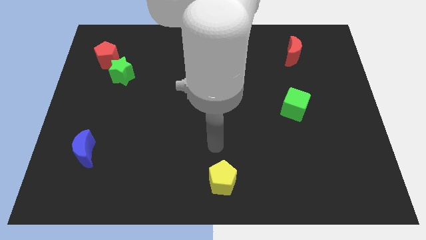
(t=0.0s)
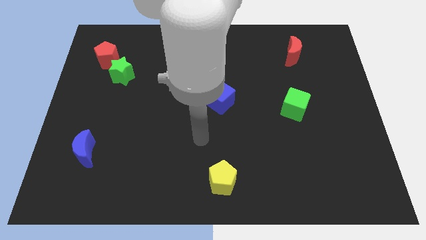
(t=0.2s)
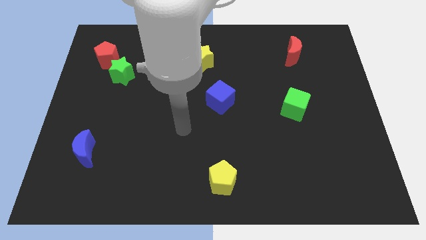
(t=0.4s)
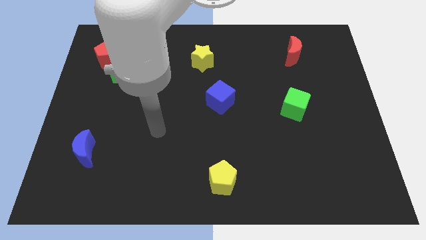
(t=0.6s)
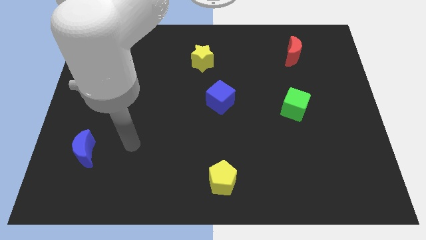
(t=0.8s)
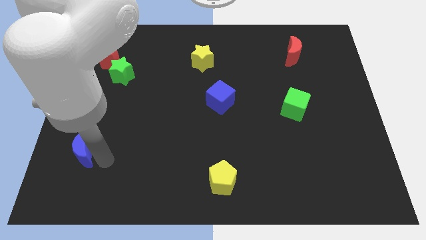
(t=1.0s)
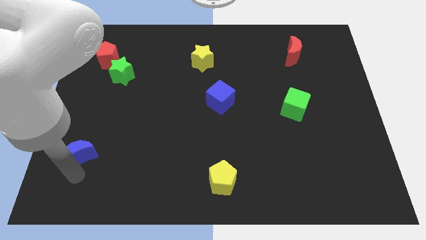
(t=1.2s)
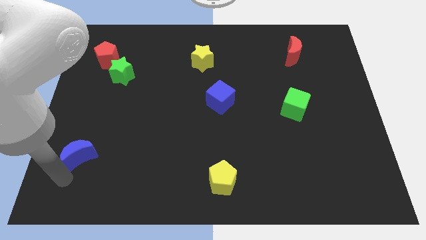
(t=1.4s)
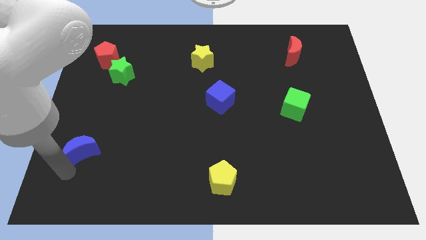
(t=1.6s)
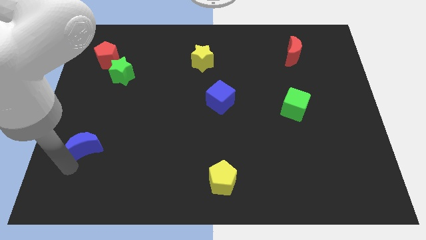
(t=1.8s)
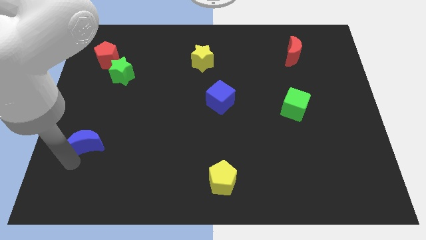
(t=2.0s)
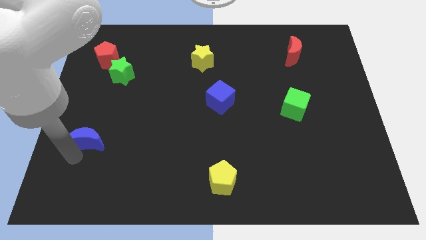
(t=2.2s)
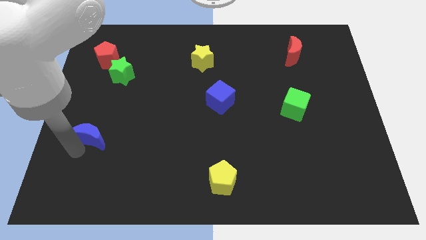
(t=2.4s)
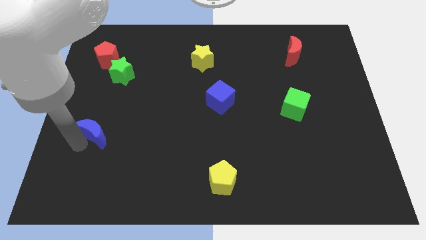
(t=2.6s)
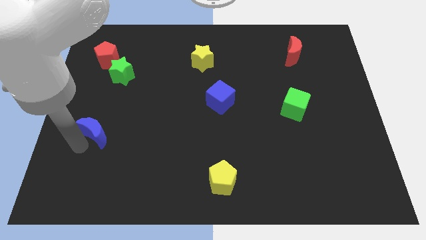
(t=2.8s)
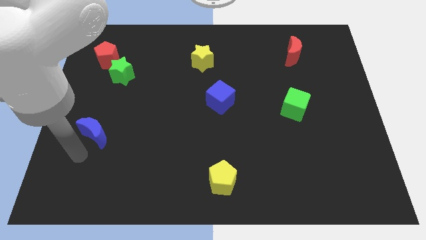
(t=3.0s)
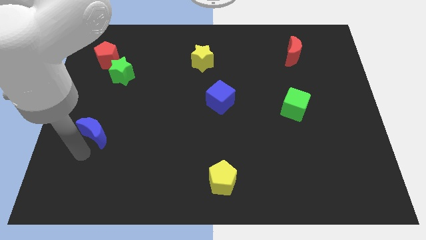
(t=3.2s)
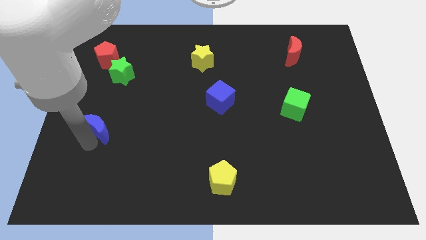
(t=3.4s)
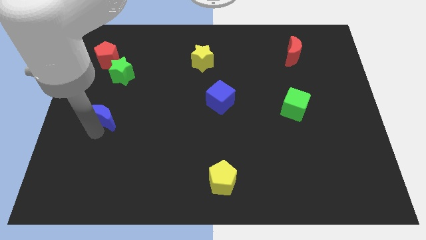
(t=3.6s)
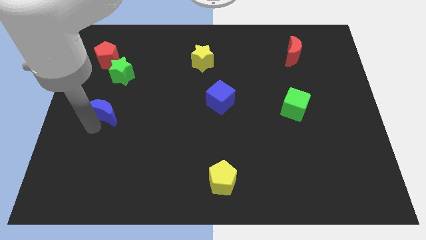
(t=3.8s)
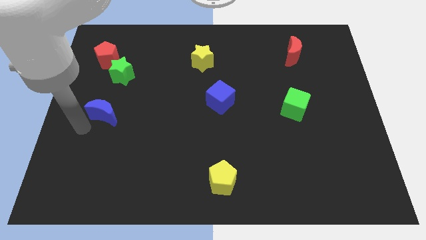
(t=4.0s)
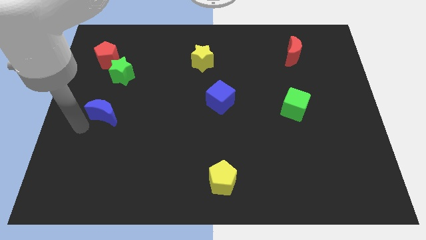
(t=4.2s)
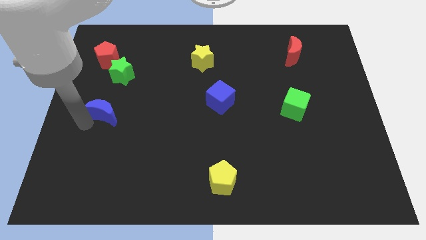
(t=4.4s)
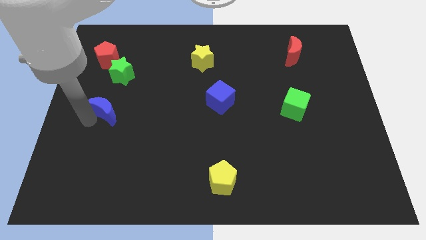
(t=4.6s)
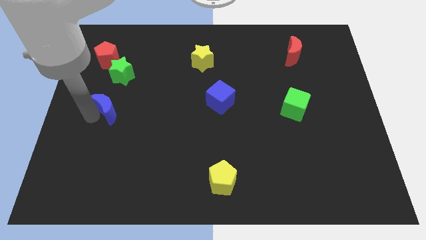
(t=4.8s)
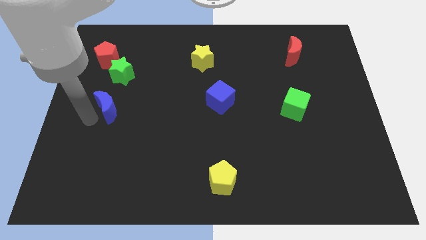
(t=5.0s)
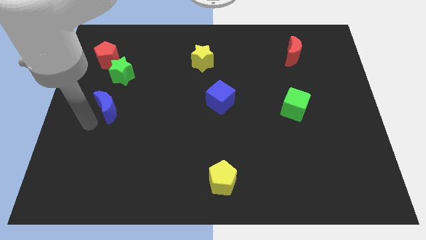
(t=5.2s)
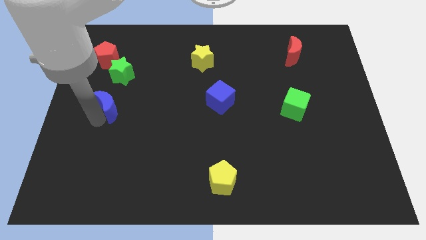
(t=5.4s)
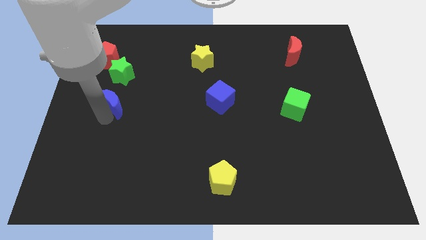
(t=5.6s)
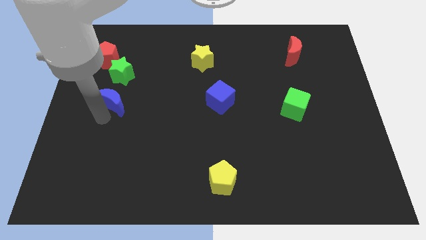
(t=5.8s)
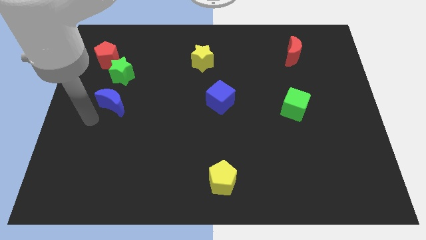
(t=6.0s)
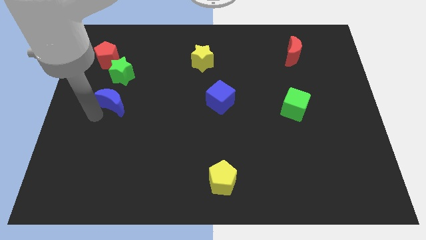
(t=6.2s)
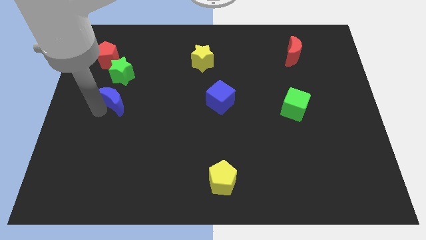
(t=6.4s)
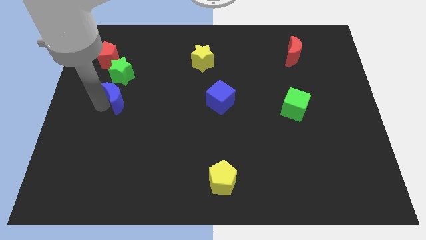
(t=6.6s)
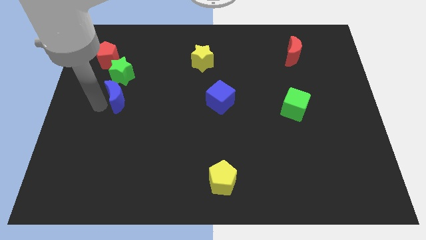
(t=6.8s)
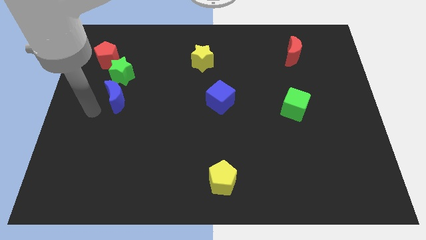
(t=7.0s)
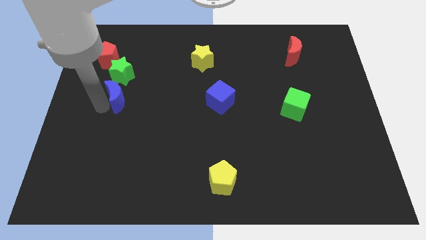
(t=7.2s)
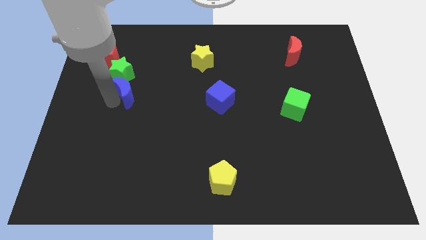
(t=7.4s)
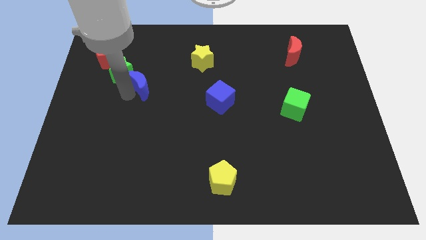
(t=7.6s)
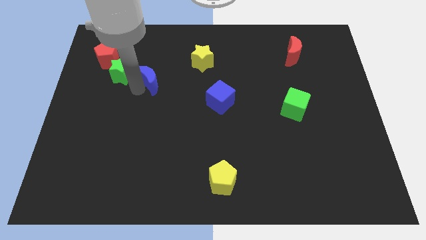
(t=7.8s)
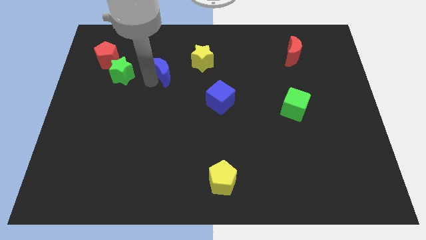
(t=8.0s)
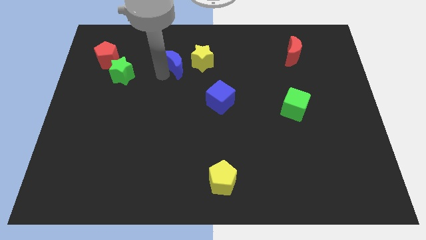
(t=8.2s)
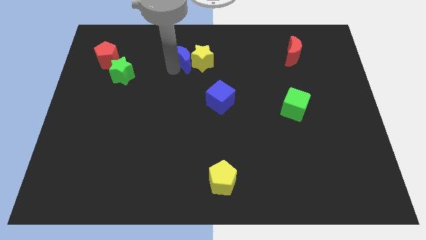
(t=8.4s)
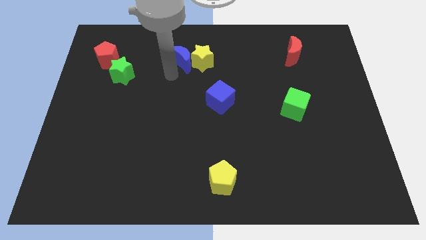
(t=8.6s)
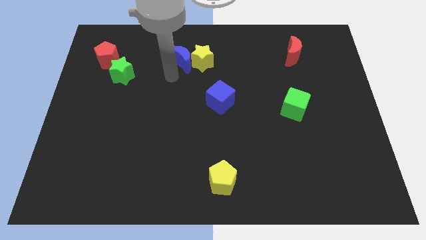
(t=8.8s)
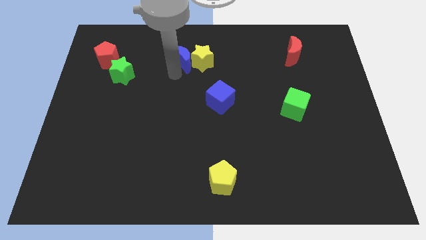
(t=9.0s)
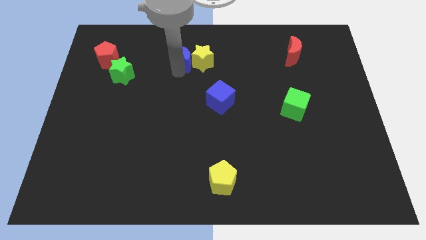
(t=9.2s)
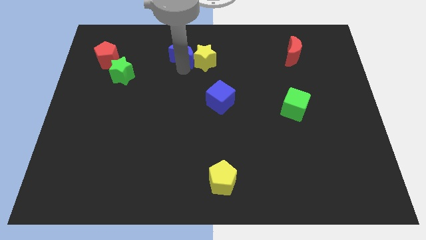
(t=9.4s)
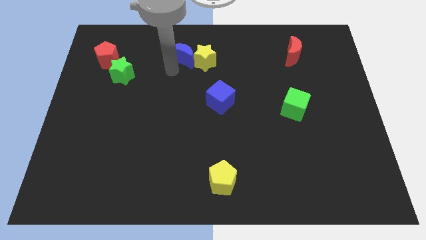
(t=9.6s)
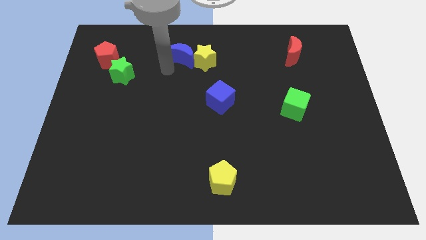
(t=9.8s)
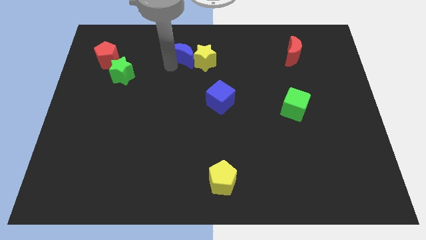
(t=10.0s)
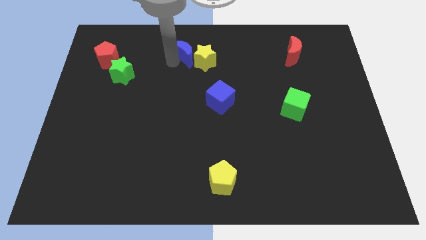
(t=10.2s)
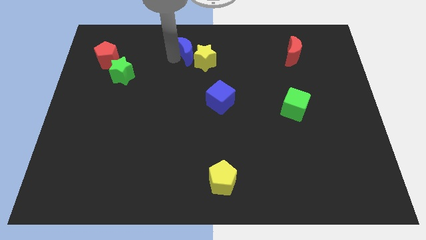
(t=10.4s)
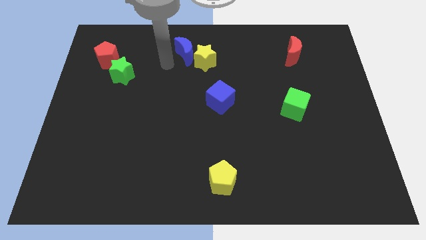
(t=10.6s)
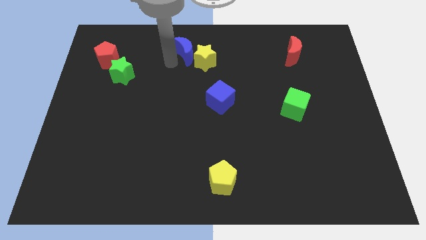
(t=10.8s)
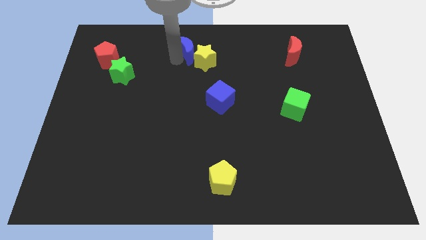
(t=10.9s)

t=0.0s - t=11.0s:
push the blue moon to the top side

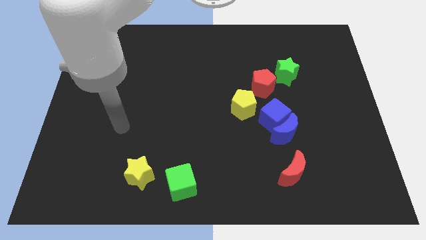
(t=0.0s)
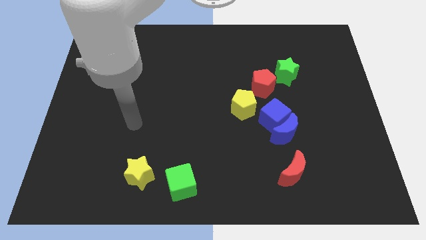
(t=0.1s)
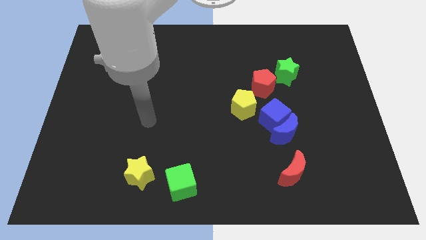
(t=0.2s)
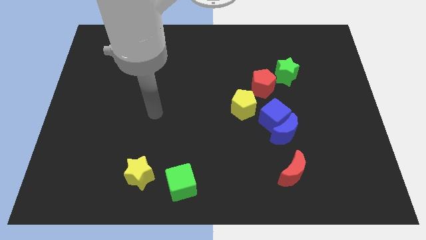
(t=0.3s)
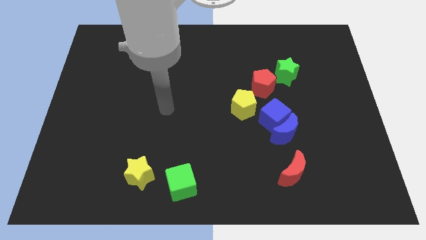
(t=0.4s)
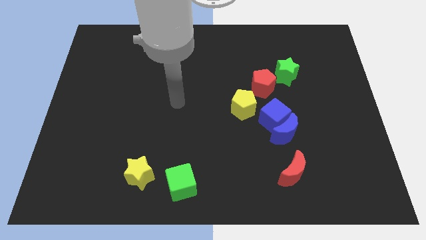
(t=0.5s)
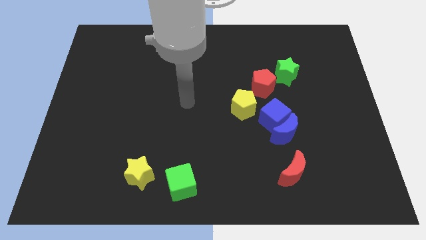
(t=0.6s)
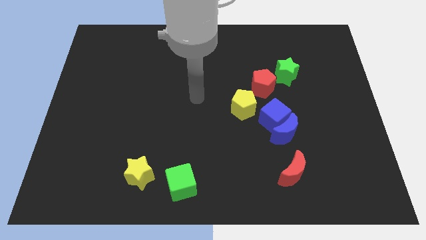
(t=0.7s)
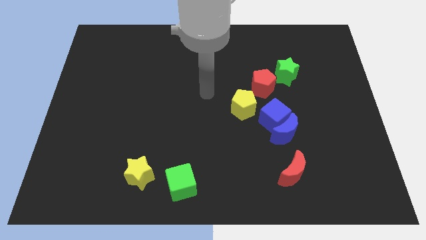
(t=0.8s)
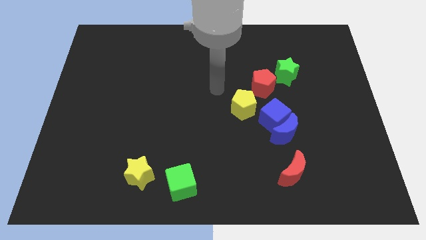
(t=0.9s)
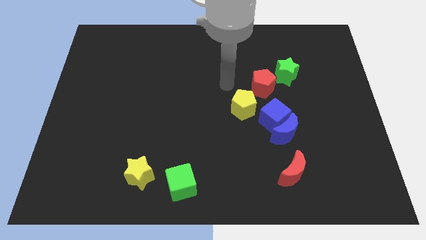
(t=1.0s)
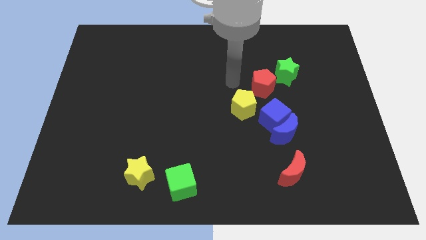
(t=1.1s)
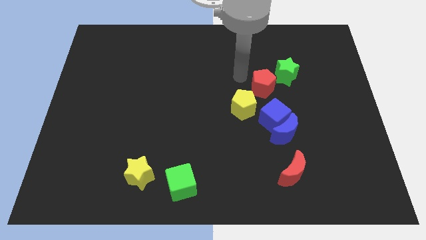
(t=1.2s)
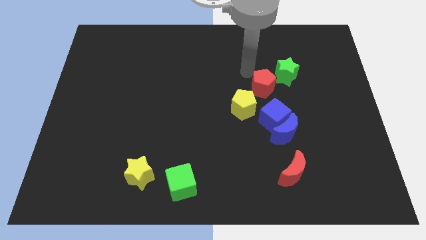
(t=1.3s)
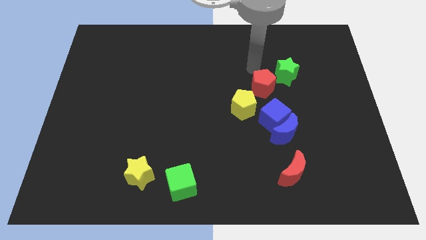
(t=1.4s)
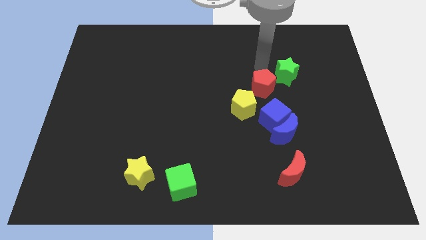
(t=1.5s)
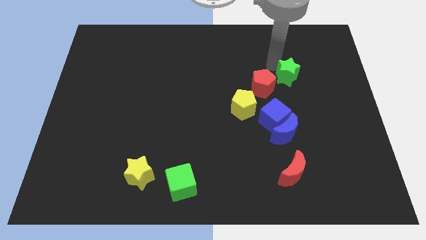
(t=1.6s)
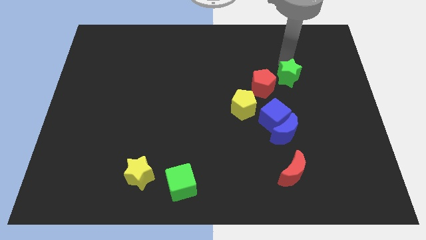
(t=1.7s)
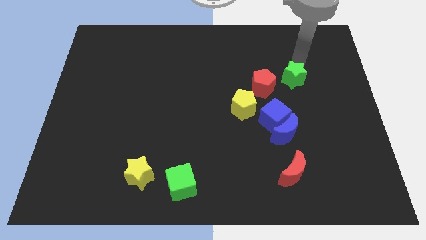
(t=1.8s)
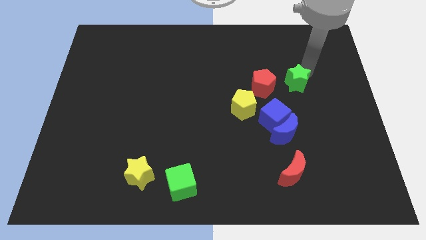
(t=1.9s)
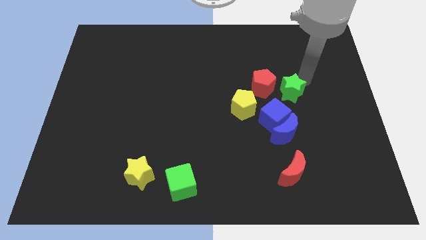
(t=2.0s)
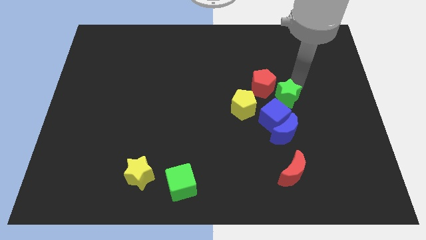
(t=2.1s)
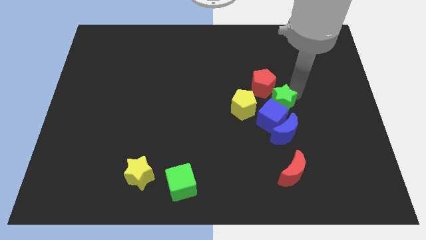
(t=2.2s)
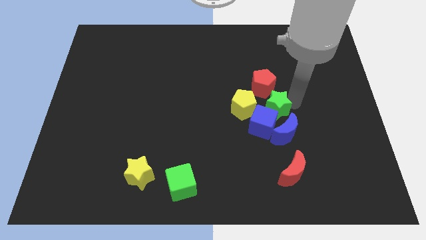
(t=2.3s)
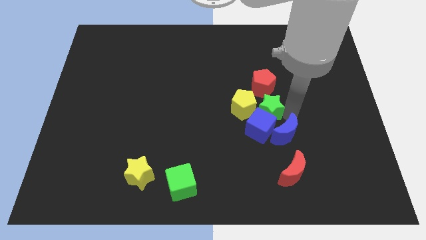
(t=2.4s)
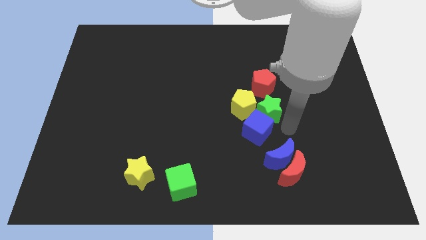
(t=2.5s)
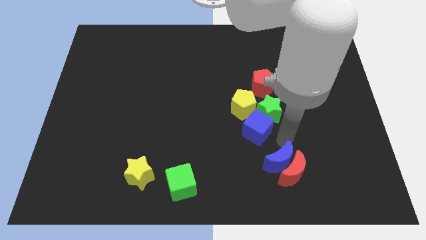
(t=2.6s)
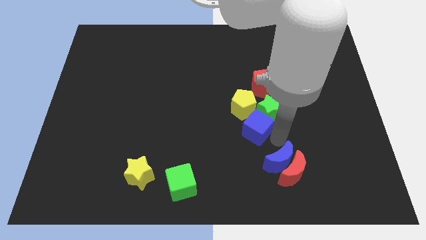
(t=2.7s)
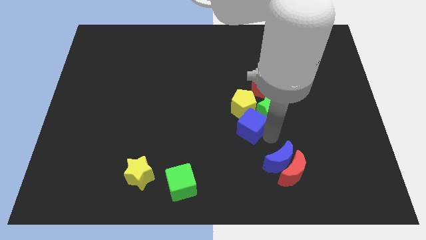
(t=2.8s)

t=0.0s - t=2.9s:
slide the blue cube to the center
